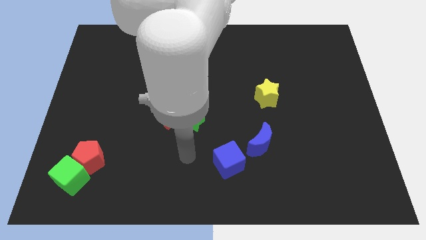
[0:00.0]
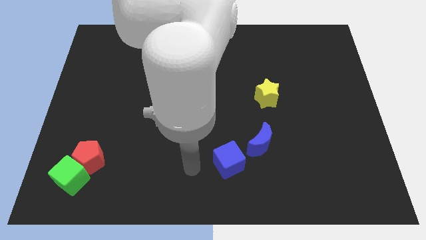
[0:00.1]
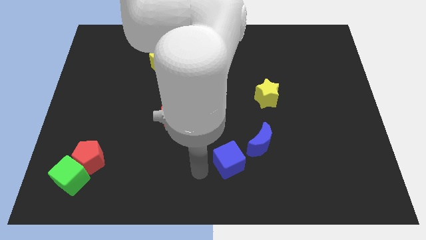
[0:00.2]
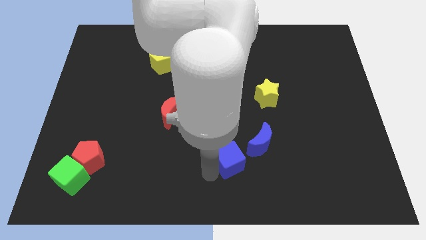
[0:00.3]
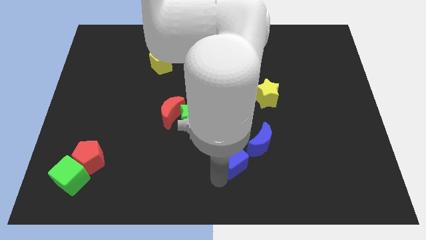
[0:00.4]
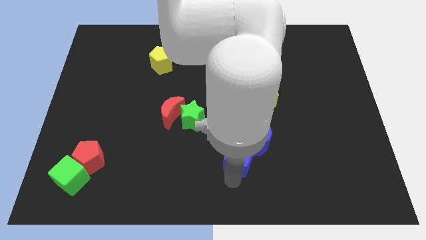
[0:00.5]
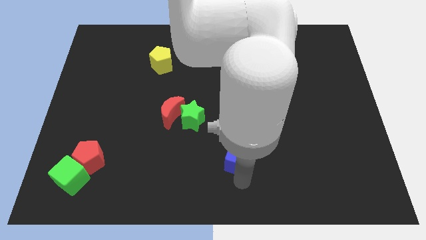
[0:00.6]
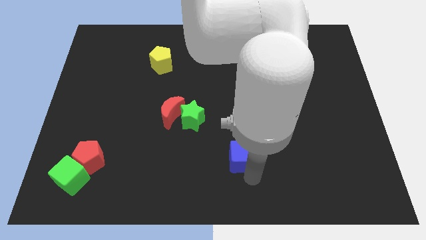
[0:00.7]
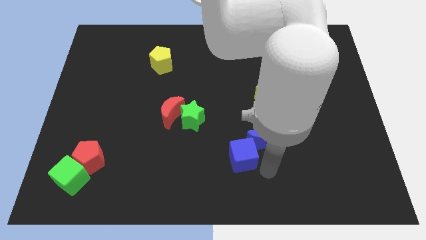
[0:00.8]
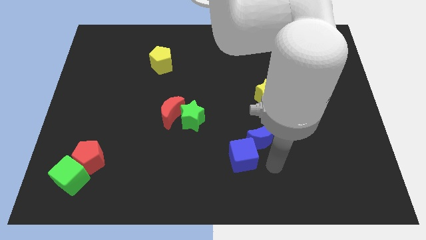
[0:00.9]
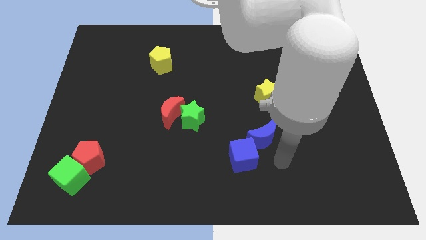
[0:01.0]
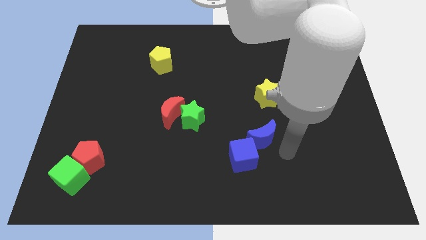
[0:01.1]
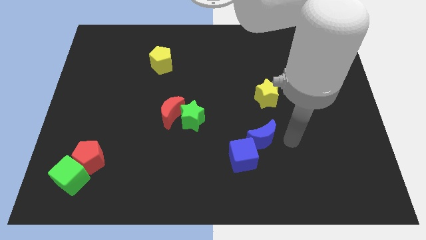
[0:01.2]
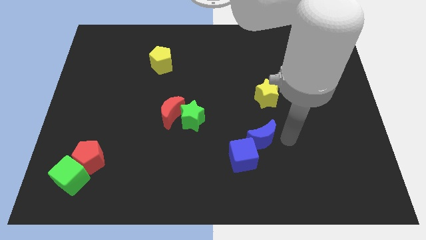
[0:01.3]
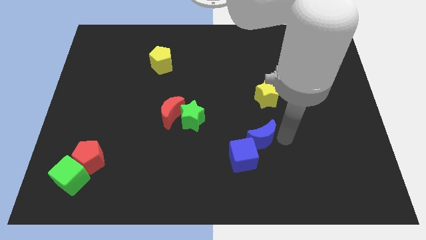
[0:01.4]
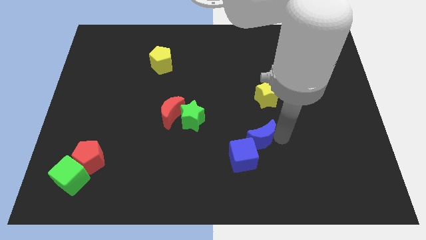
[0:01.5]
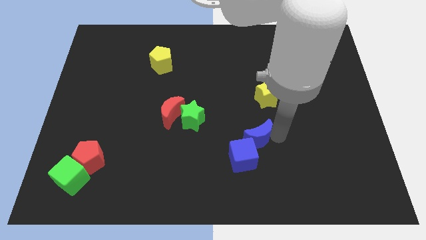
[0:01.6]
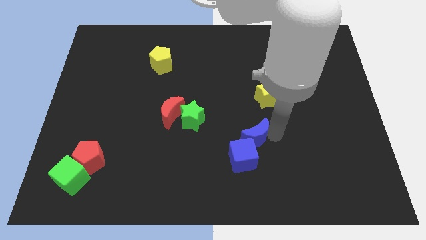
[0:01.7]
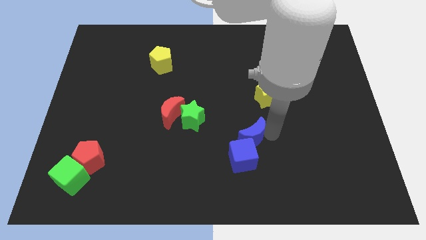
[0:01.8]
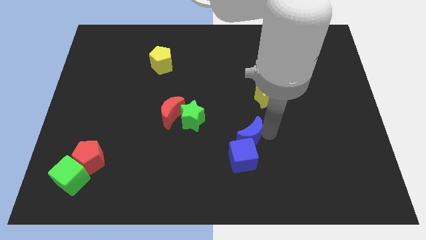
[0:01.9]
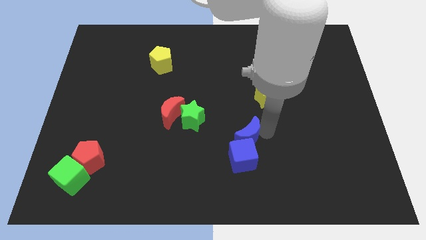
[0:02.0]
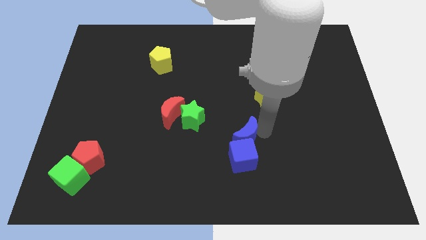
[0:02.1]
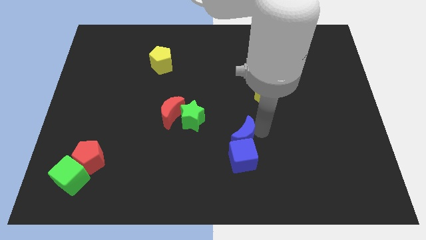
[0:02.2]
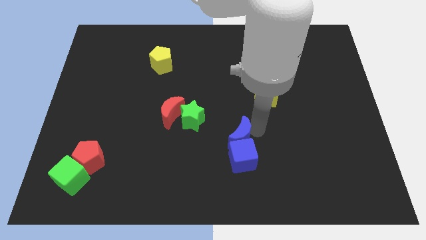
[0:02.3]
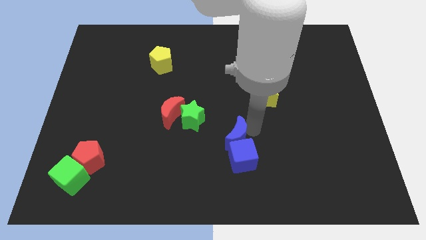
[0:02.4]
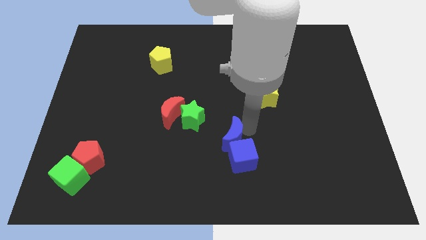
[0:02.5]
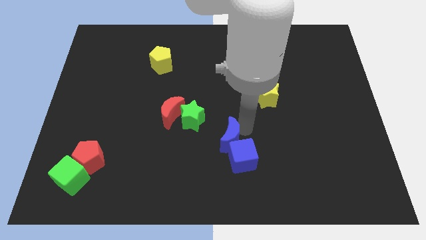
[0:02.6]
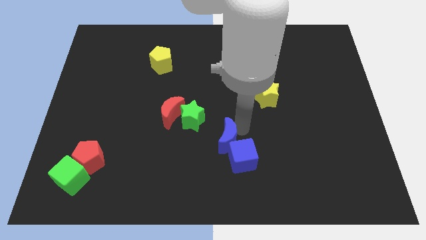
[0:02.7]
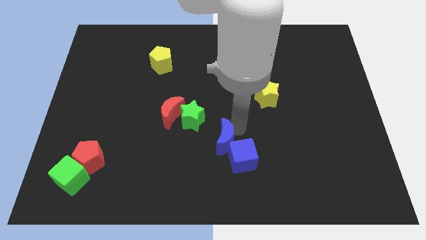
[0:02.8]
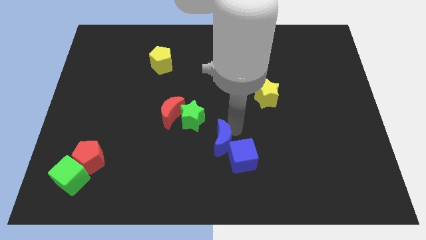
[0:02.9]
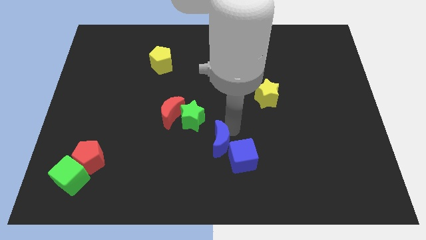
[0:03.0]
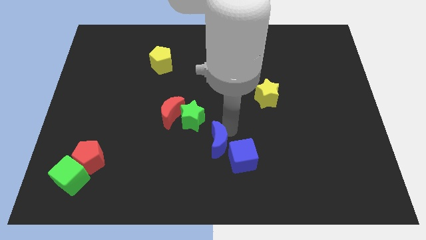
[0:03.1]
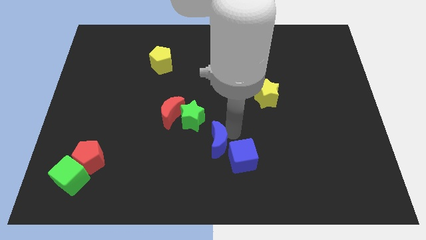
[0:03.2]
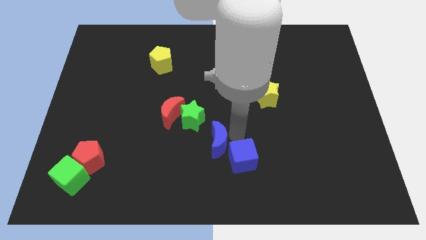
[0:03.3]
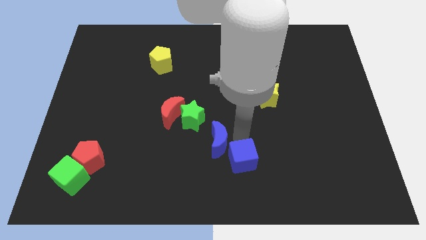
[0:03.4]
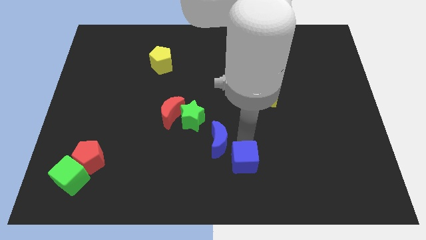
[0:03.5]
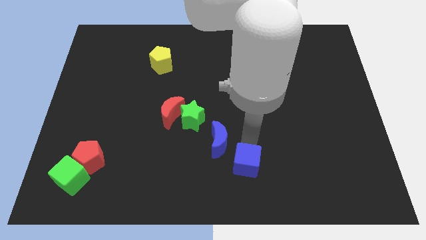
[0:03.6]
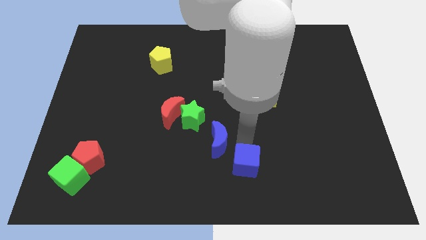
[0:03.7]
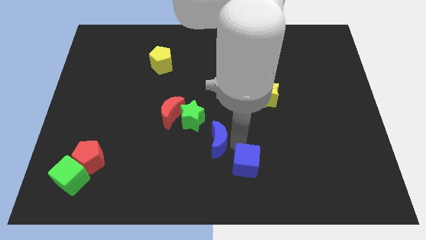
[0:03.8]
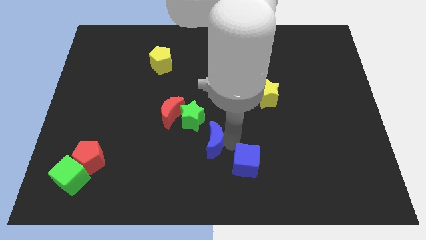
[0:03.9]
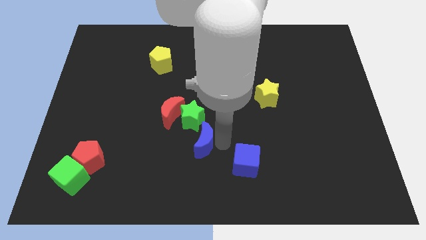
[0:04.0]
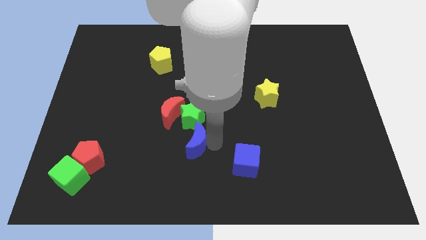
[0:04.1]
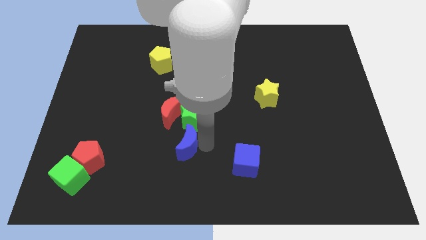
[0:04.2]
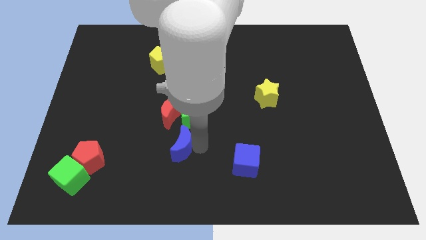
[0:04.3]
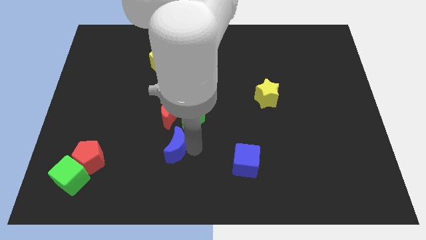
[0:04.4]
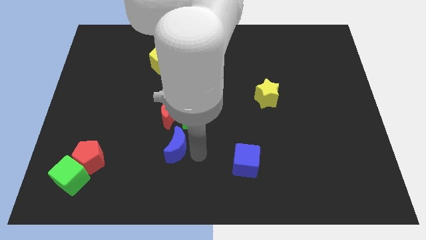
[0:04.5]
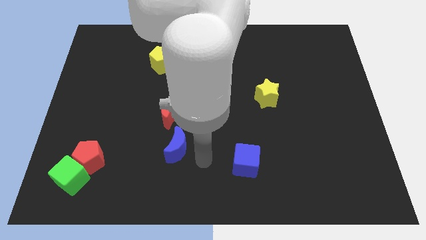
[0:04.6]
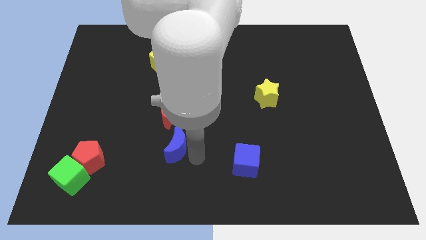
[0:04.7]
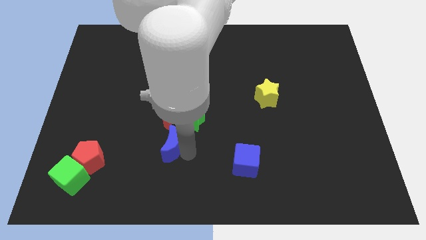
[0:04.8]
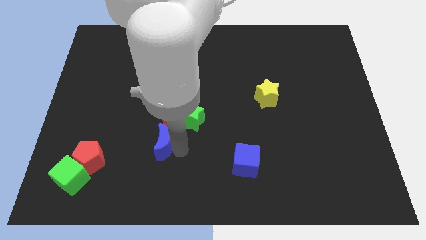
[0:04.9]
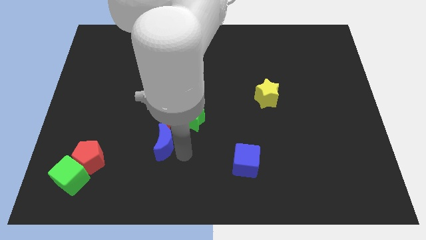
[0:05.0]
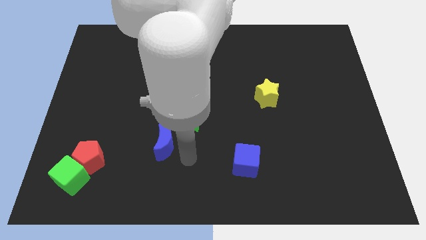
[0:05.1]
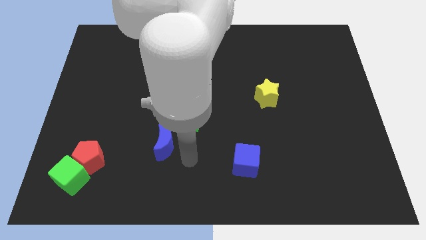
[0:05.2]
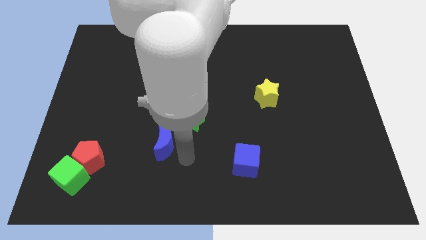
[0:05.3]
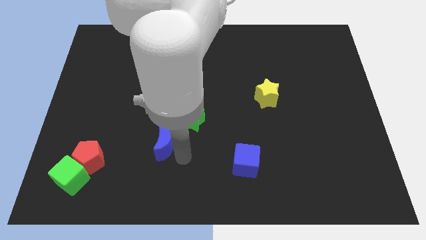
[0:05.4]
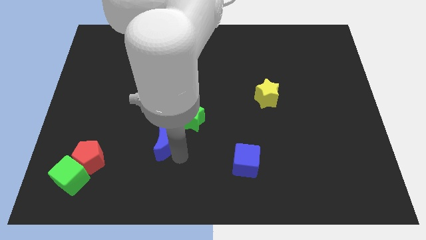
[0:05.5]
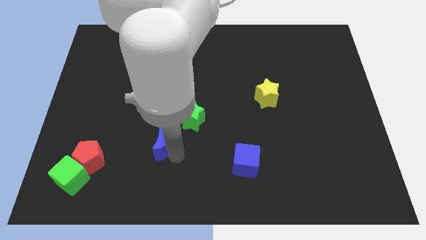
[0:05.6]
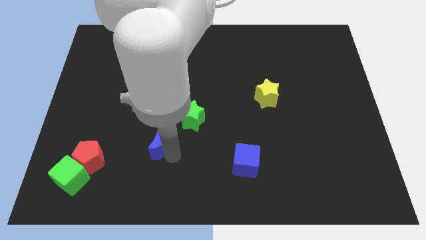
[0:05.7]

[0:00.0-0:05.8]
put the blue moon to the bottom left side of the red moon

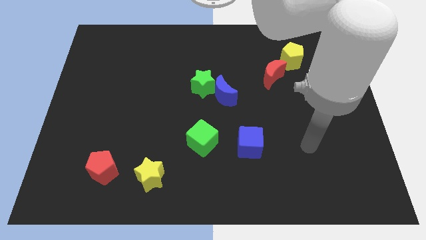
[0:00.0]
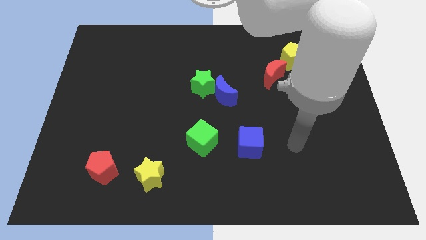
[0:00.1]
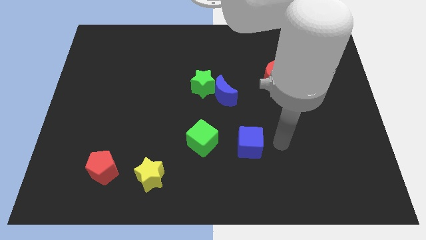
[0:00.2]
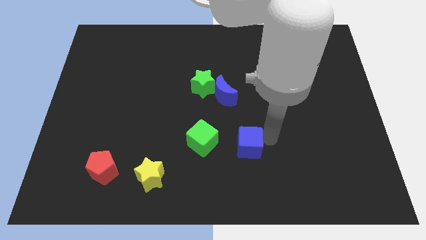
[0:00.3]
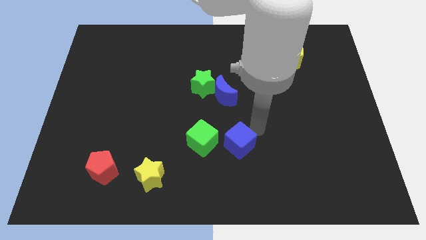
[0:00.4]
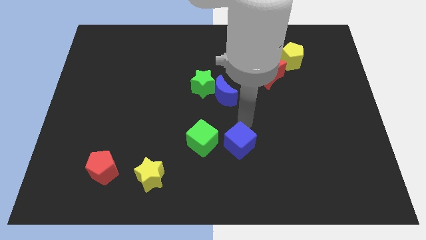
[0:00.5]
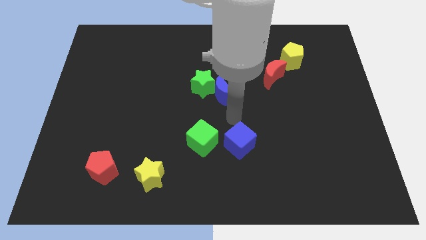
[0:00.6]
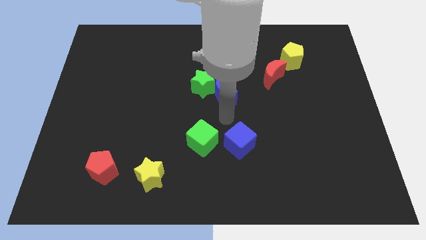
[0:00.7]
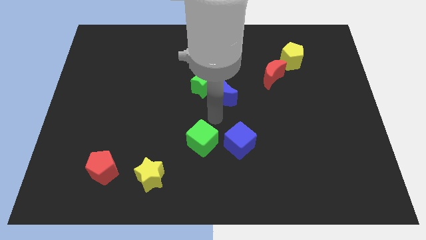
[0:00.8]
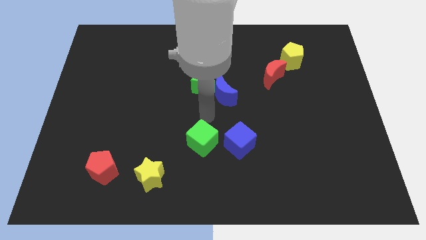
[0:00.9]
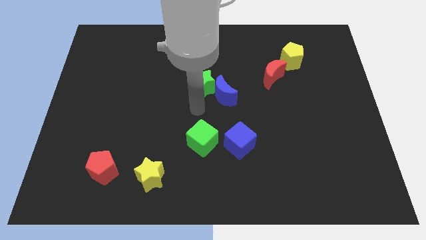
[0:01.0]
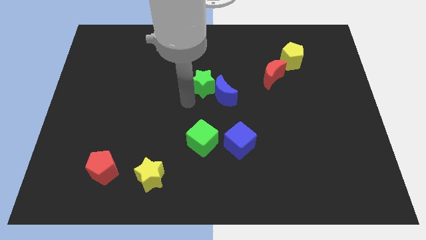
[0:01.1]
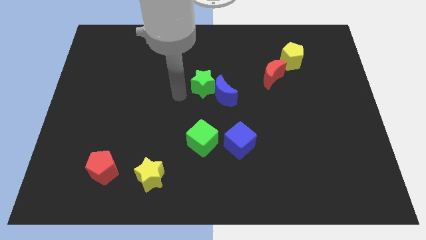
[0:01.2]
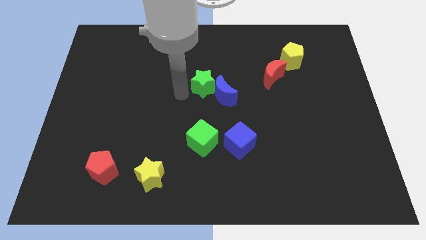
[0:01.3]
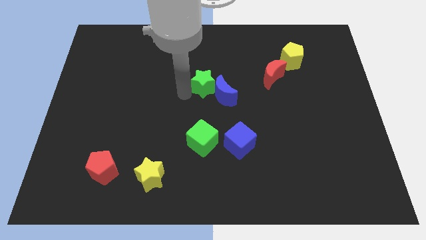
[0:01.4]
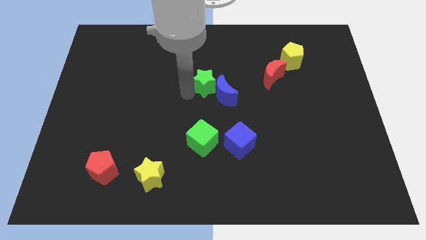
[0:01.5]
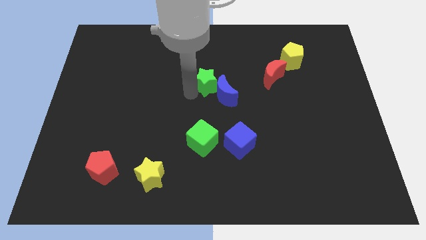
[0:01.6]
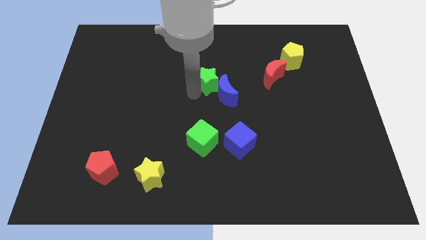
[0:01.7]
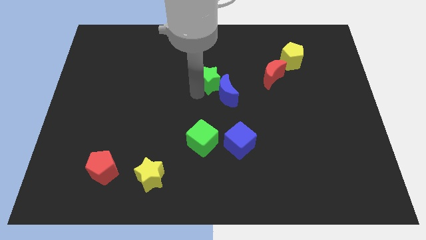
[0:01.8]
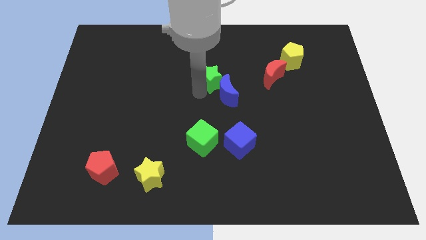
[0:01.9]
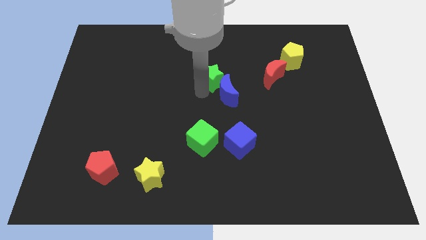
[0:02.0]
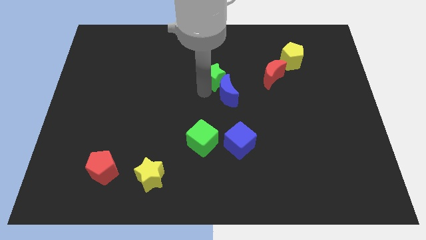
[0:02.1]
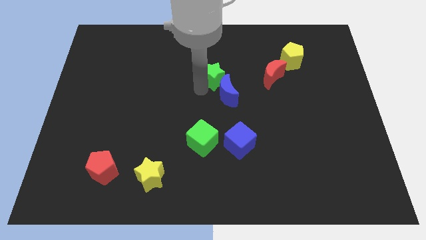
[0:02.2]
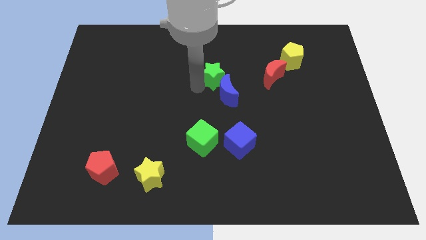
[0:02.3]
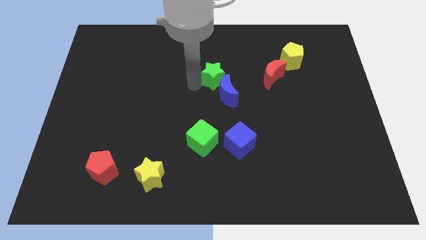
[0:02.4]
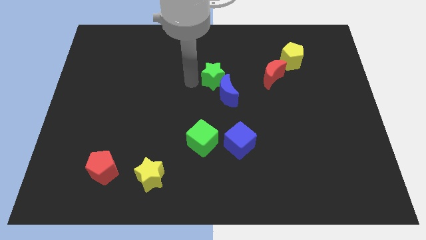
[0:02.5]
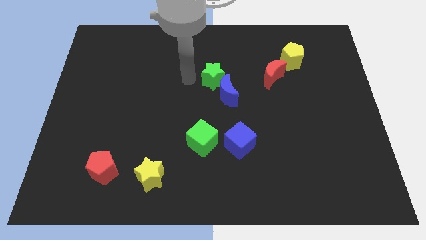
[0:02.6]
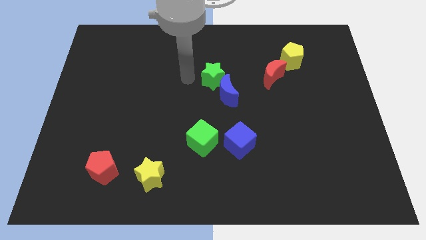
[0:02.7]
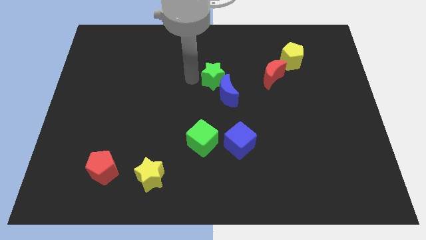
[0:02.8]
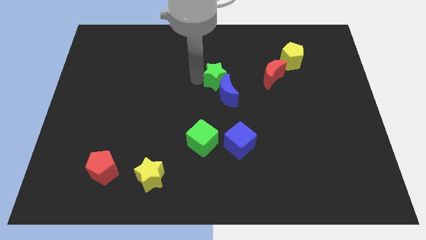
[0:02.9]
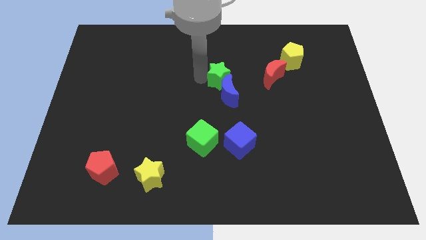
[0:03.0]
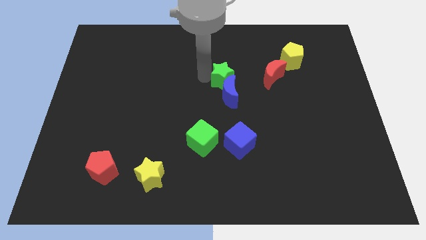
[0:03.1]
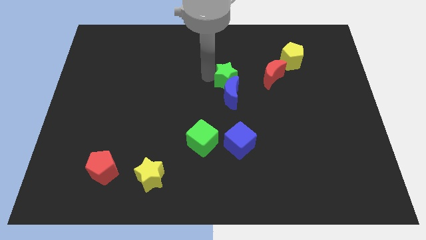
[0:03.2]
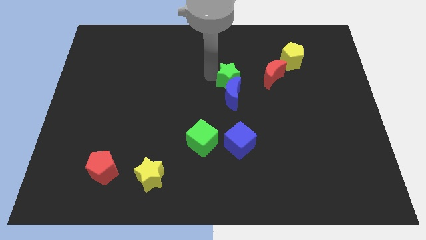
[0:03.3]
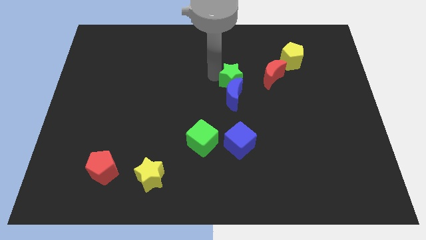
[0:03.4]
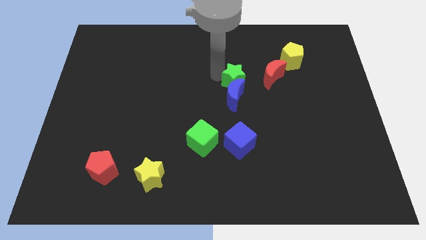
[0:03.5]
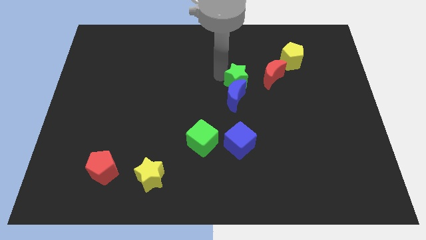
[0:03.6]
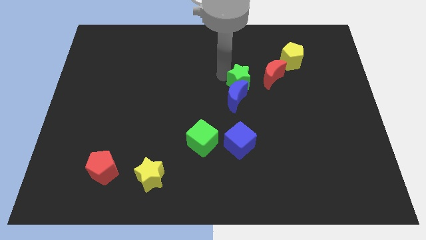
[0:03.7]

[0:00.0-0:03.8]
push the green star diagonally down and to the left of the red moon
